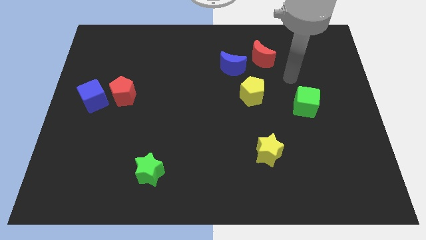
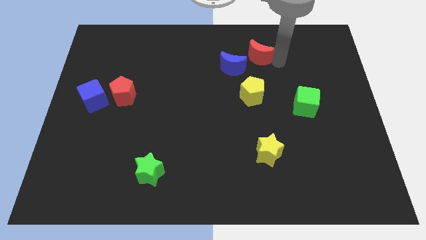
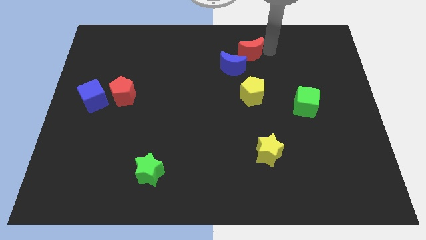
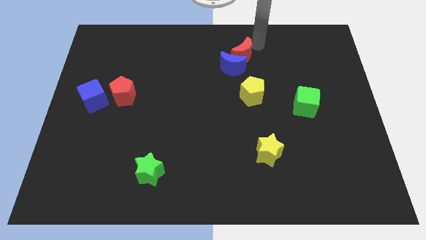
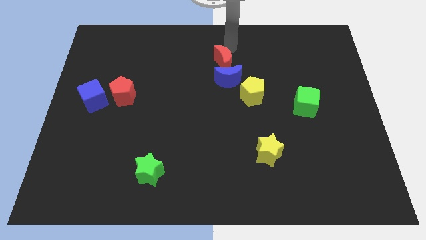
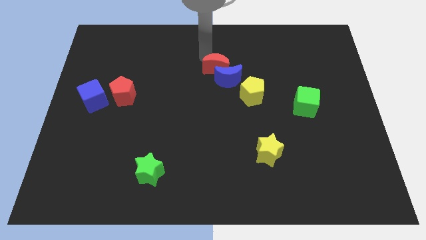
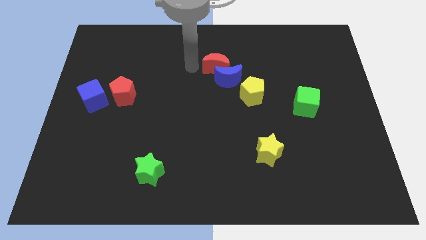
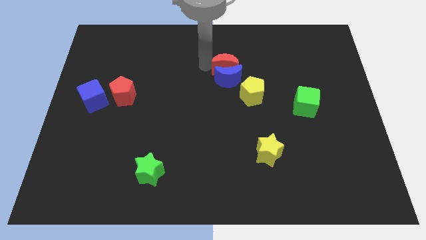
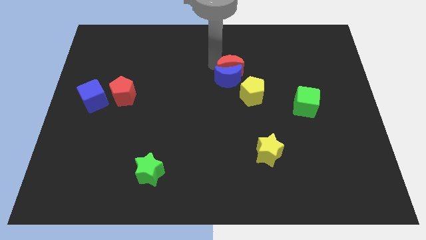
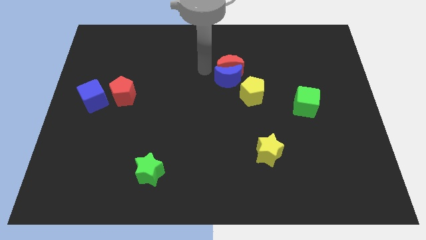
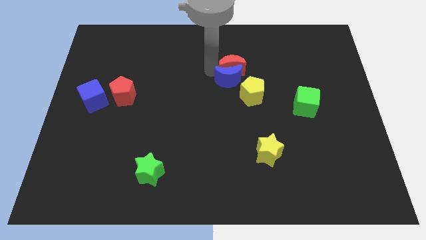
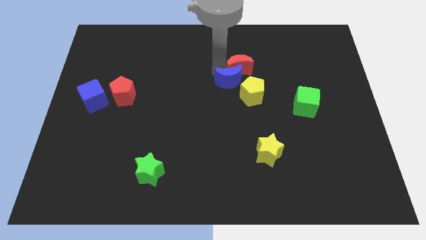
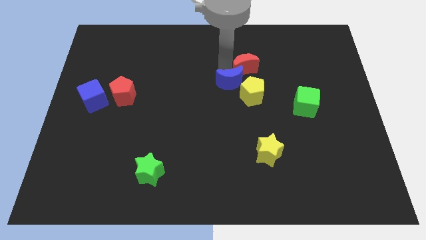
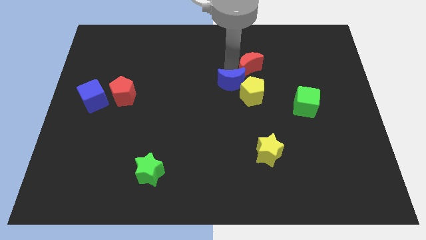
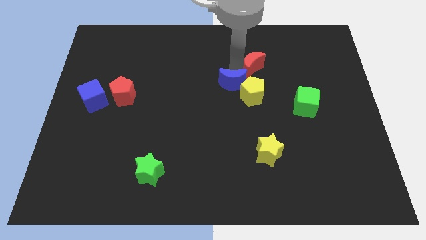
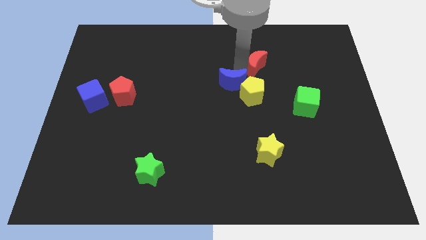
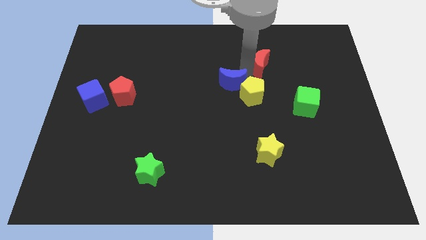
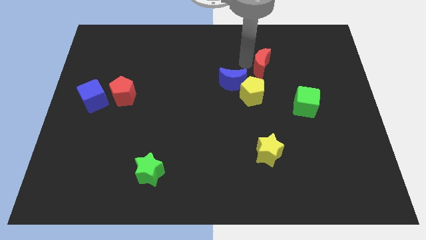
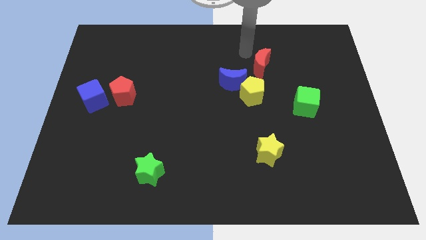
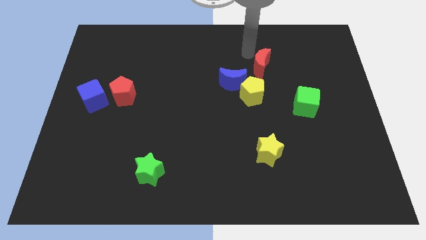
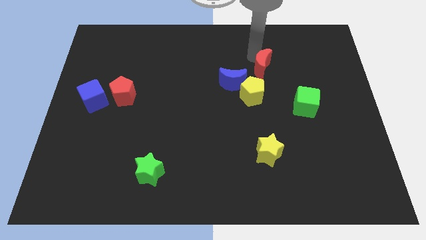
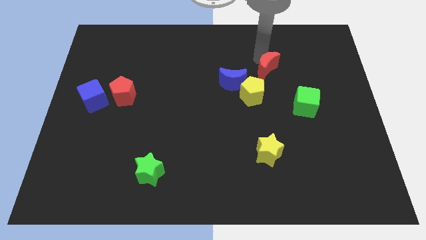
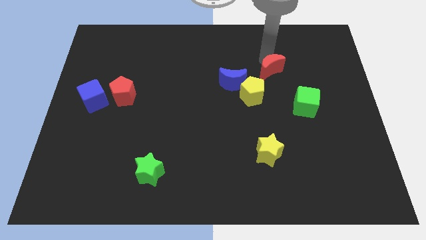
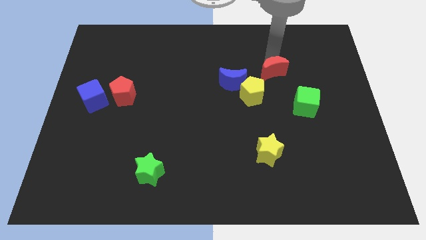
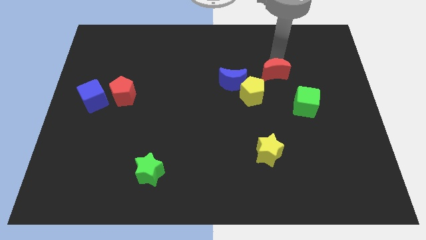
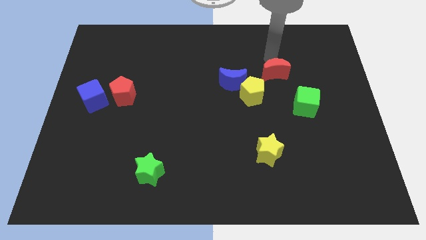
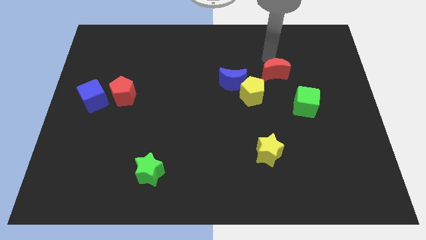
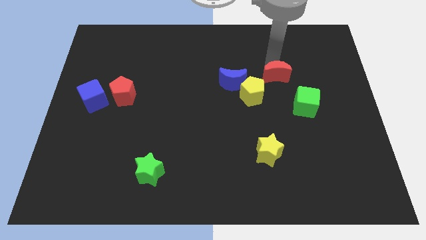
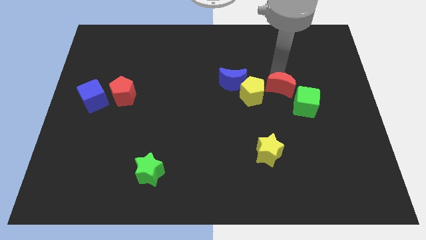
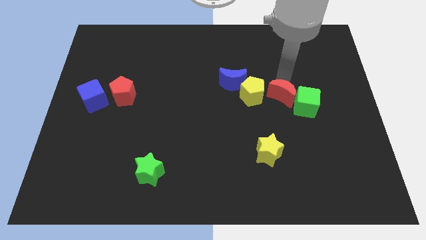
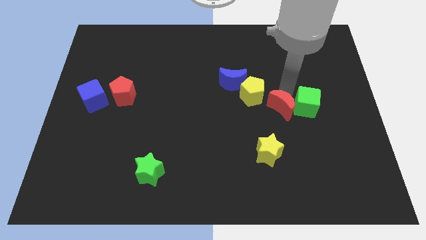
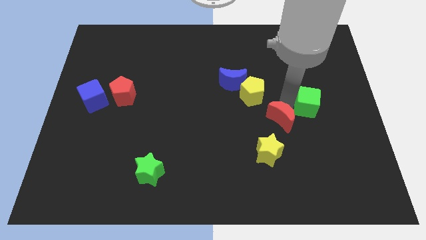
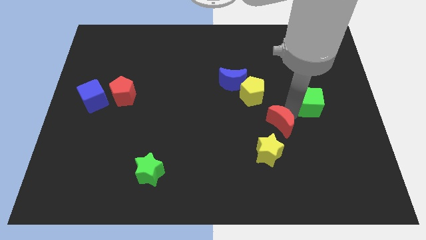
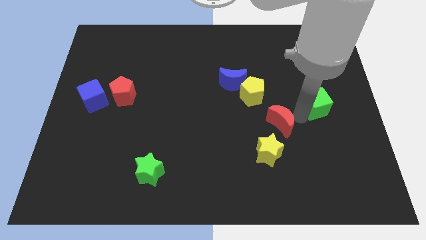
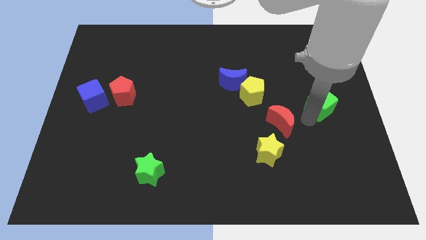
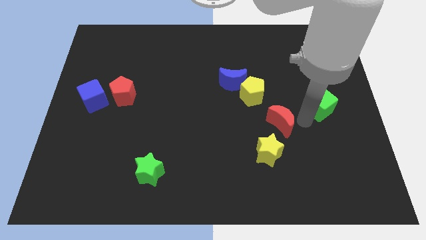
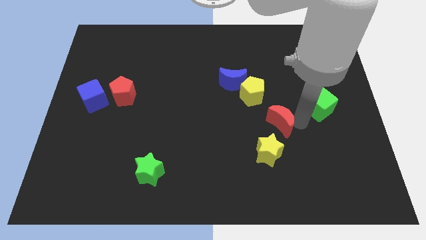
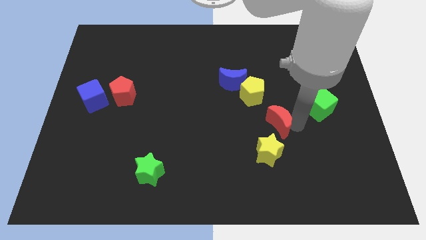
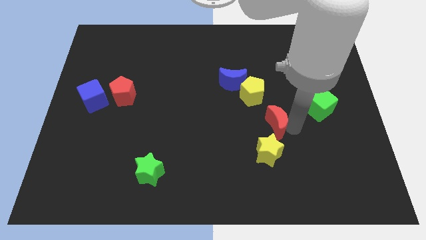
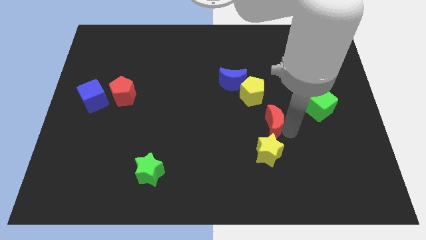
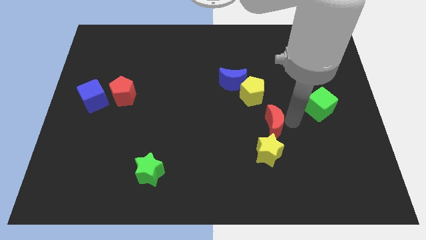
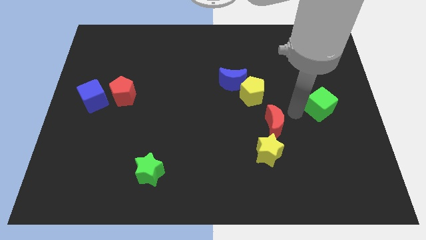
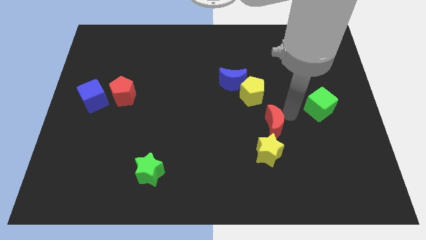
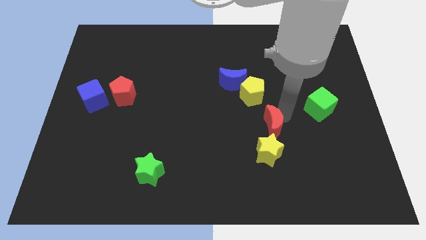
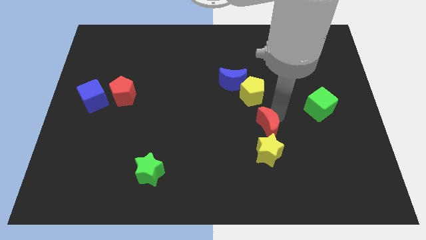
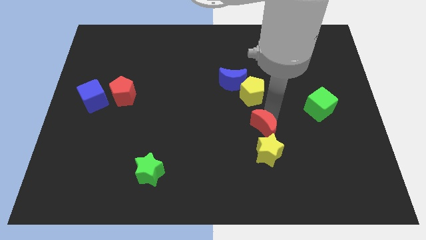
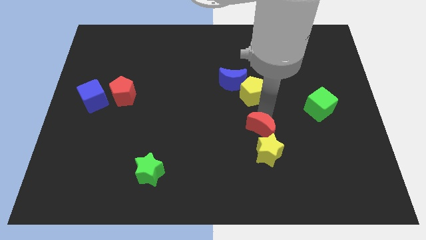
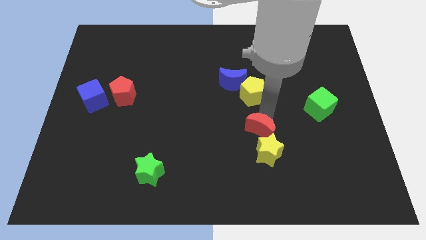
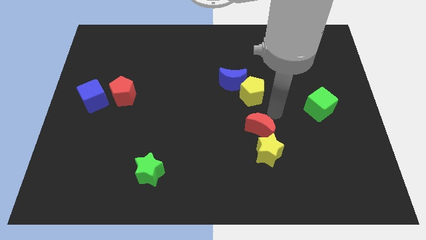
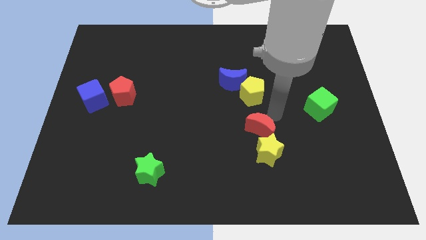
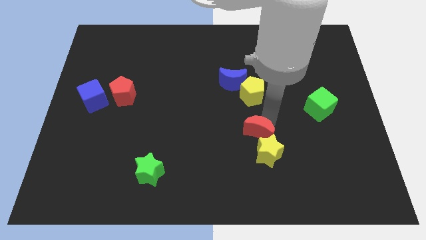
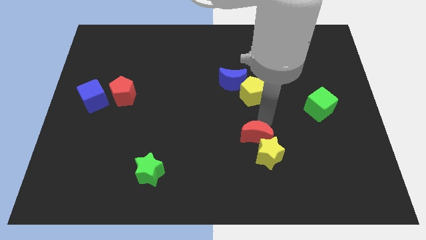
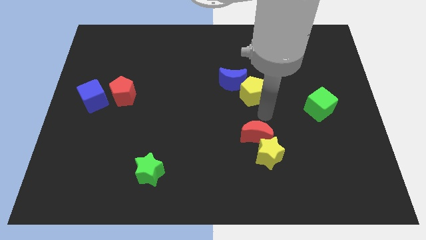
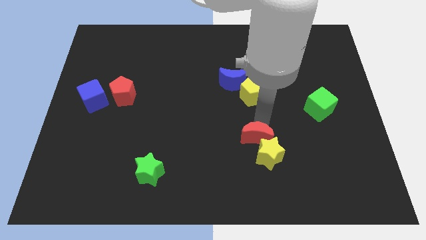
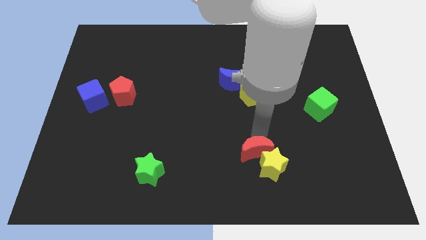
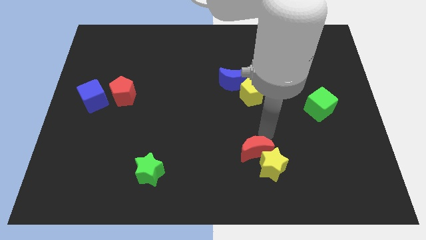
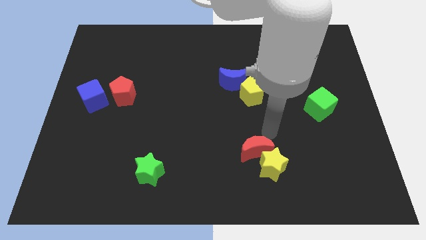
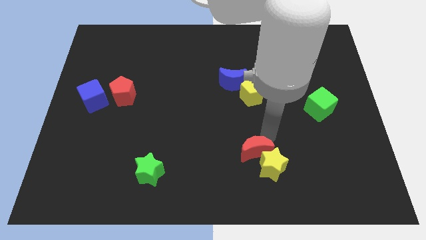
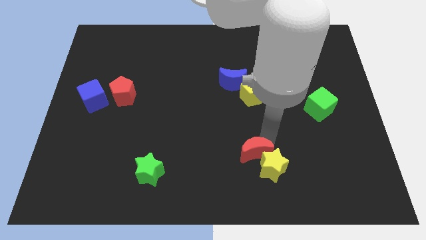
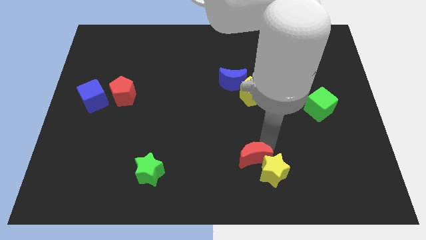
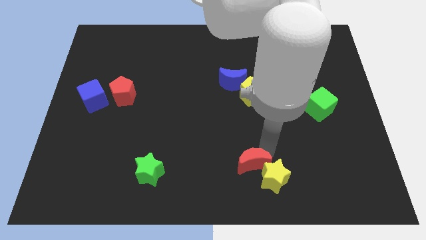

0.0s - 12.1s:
push the red moon to the bottom
